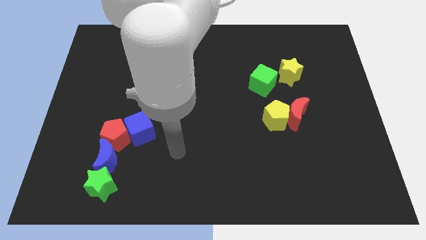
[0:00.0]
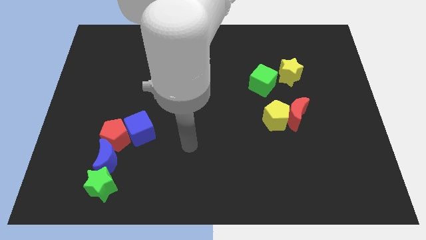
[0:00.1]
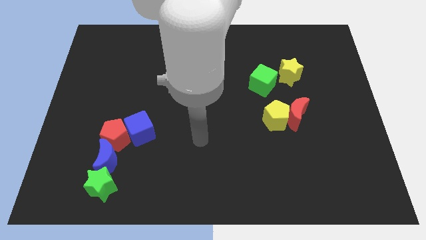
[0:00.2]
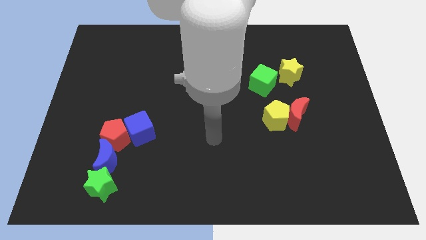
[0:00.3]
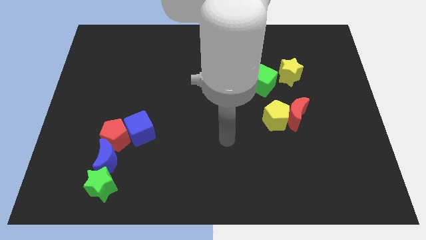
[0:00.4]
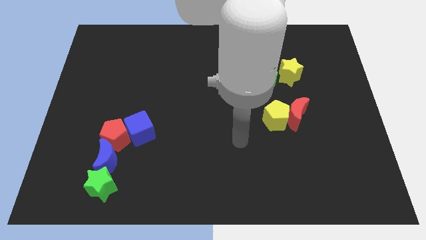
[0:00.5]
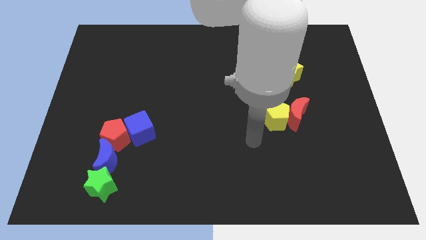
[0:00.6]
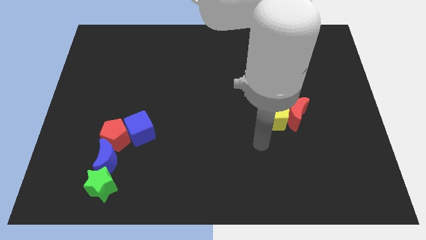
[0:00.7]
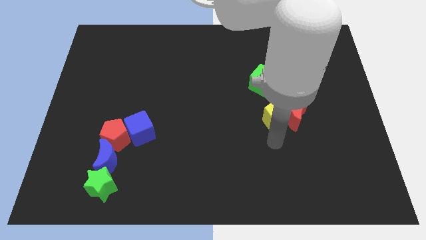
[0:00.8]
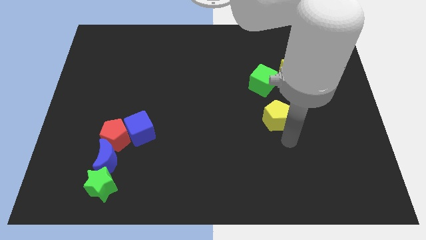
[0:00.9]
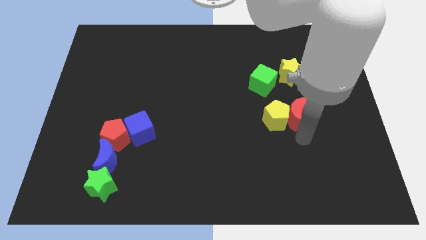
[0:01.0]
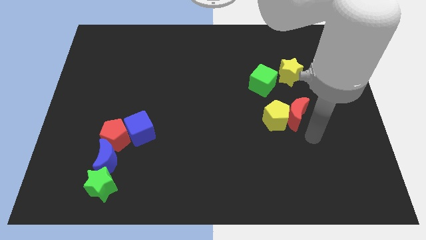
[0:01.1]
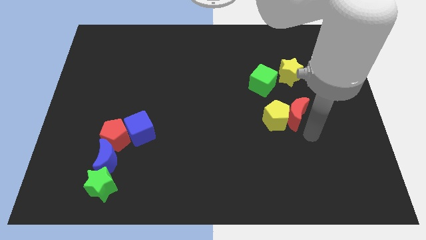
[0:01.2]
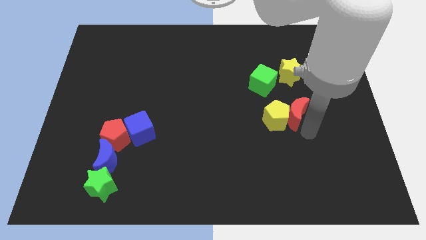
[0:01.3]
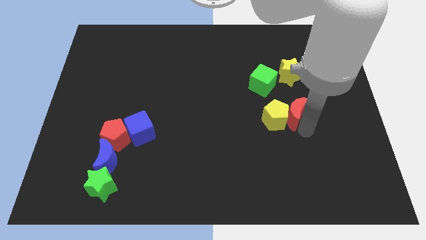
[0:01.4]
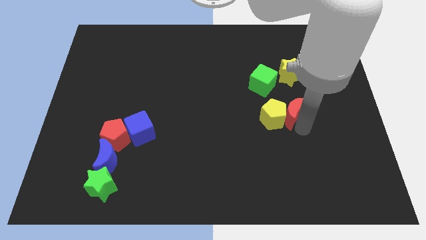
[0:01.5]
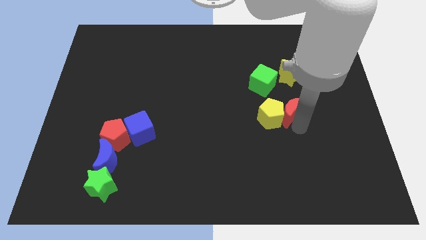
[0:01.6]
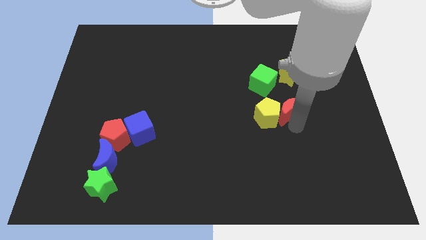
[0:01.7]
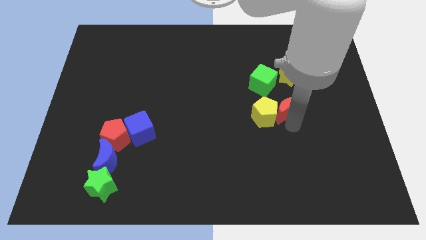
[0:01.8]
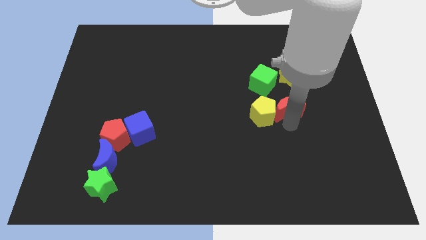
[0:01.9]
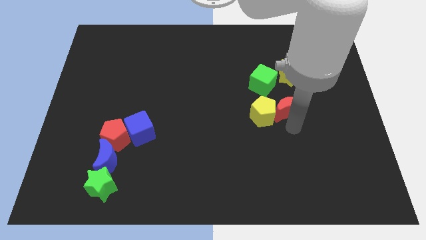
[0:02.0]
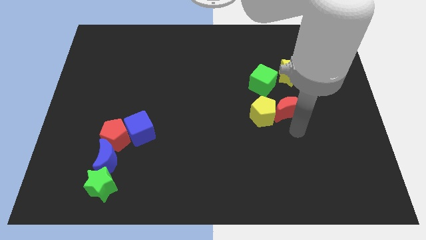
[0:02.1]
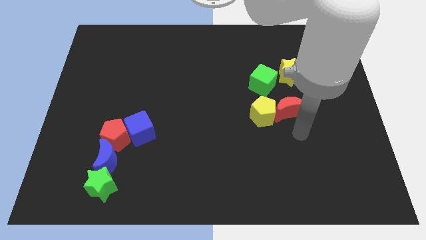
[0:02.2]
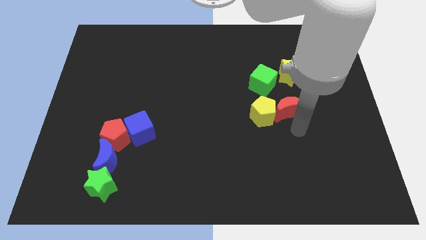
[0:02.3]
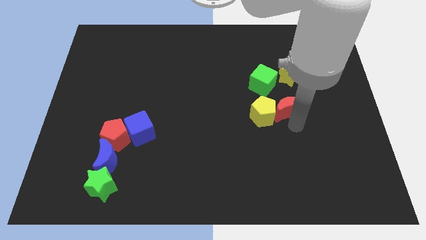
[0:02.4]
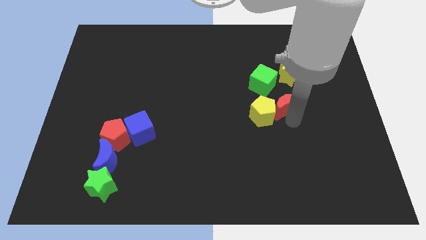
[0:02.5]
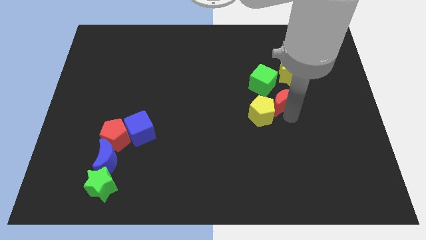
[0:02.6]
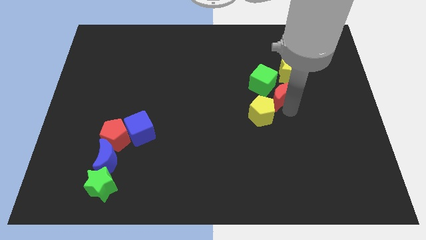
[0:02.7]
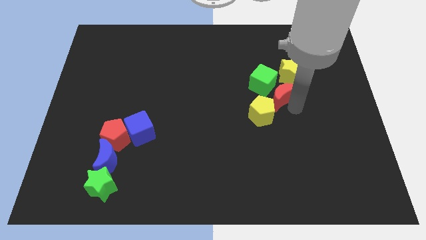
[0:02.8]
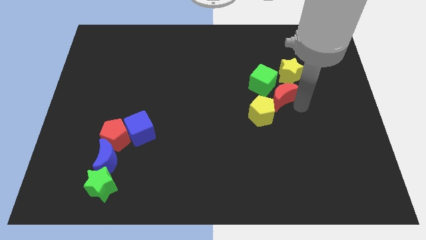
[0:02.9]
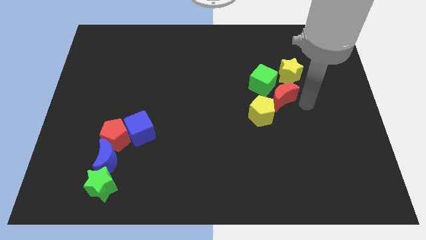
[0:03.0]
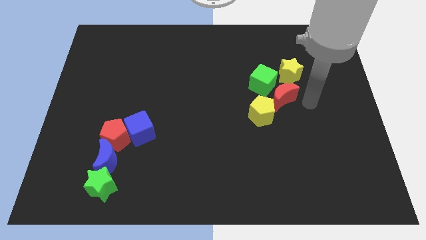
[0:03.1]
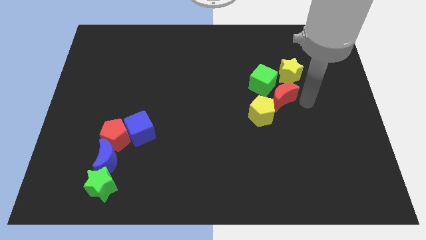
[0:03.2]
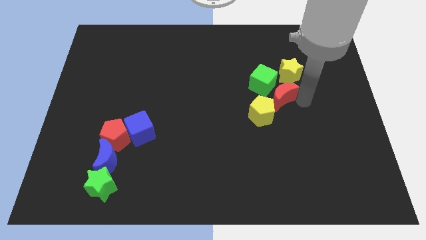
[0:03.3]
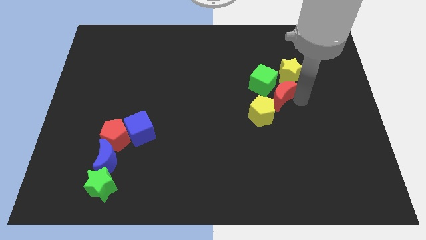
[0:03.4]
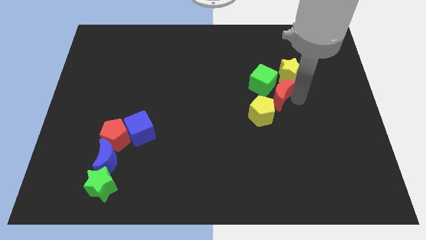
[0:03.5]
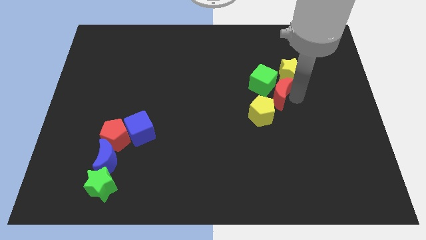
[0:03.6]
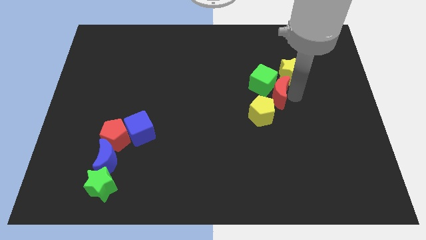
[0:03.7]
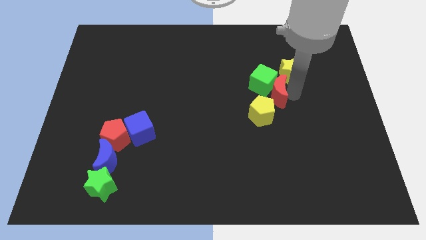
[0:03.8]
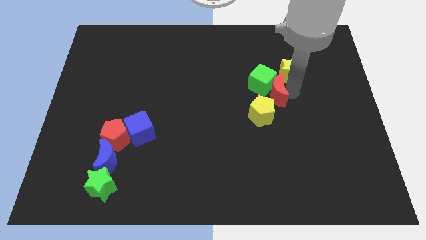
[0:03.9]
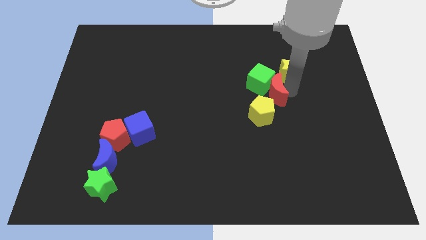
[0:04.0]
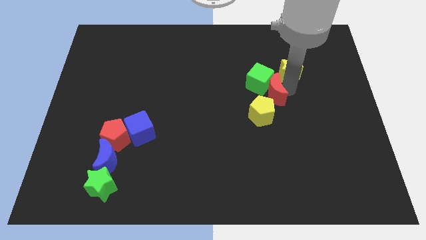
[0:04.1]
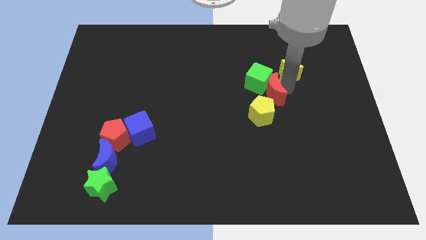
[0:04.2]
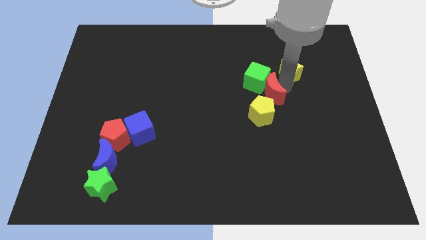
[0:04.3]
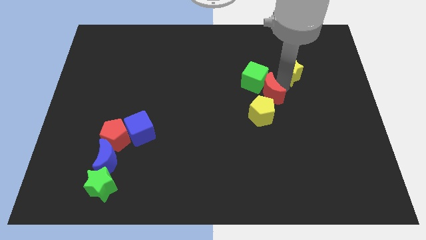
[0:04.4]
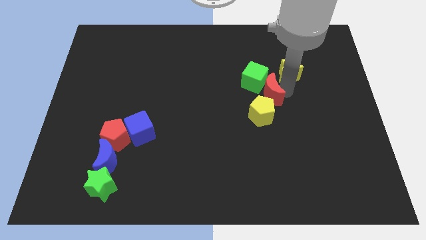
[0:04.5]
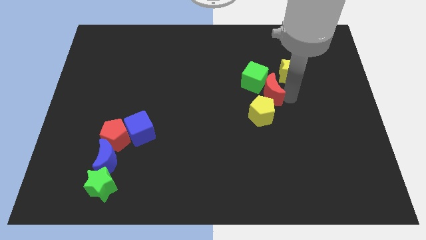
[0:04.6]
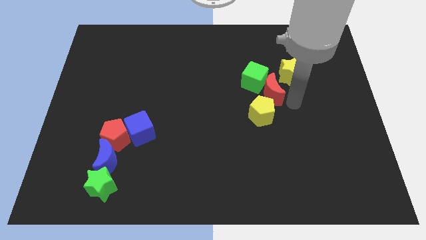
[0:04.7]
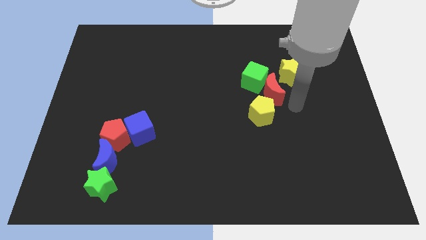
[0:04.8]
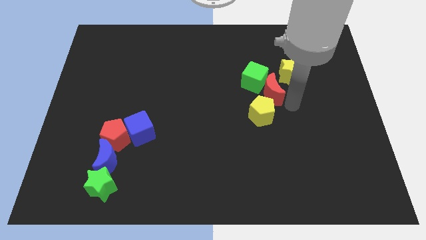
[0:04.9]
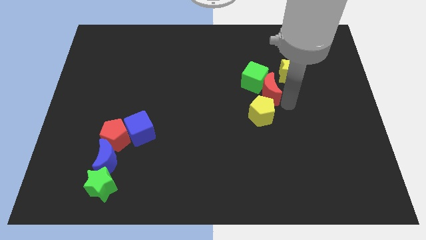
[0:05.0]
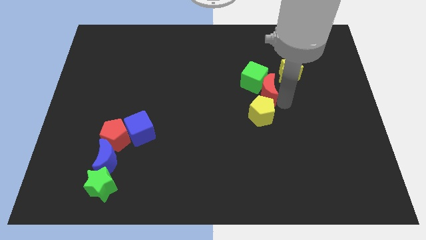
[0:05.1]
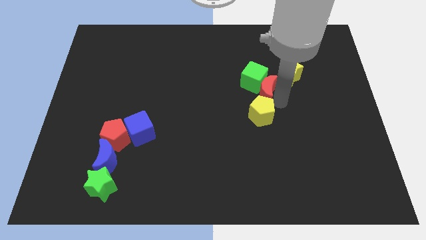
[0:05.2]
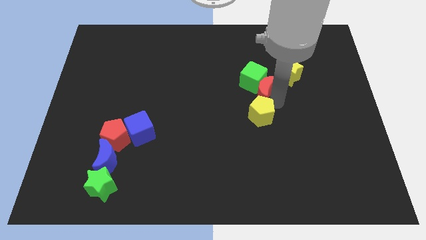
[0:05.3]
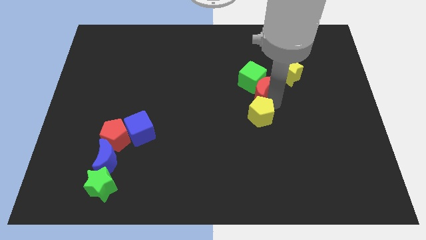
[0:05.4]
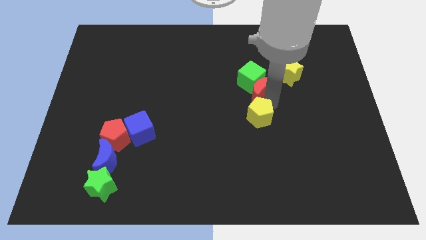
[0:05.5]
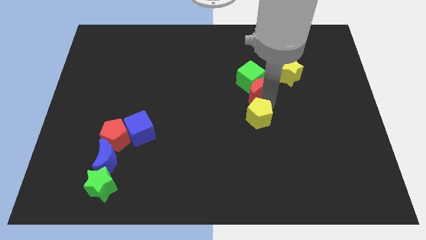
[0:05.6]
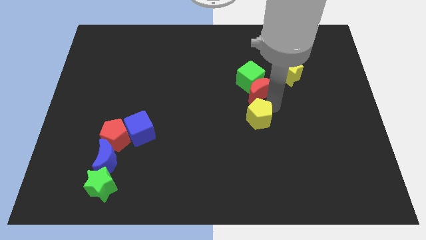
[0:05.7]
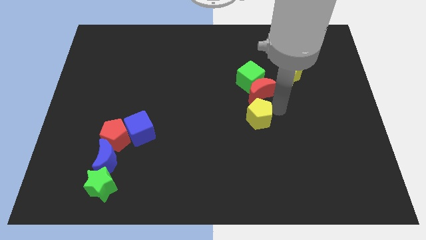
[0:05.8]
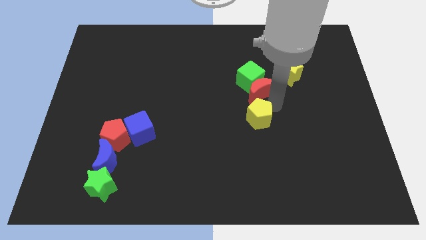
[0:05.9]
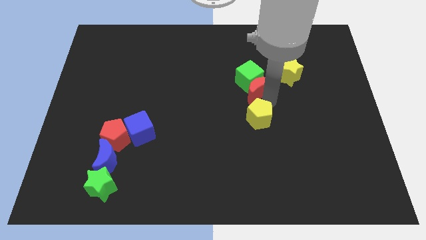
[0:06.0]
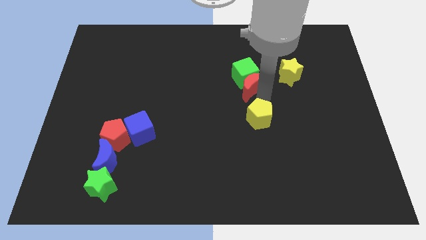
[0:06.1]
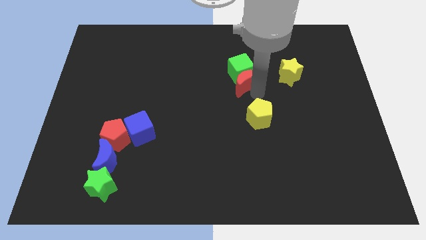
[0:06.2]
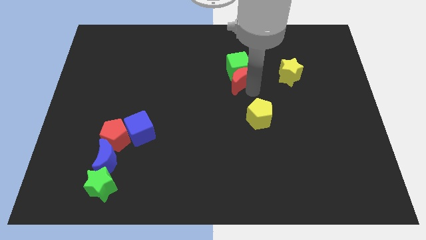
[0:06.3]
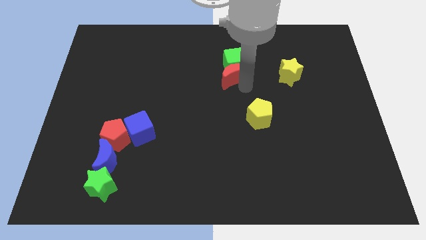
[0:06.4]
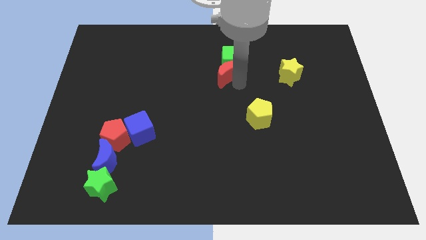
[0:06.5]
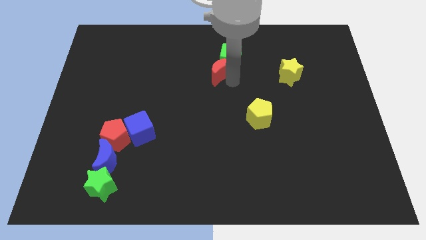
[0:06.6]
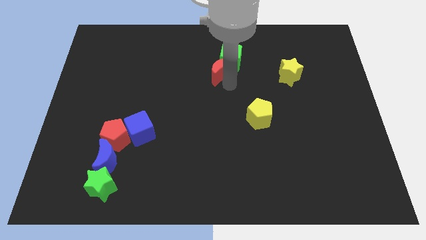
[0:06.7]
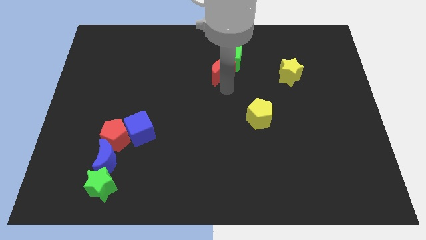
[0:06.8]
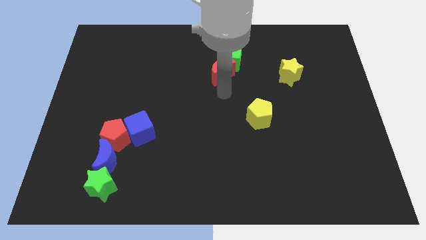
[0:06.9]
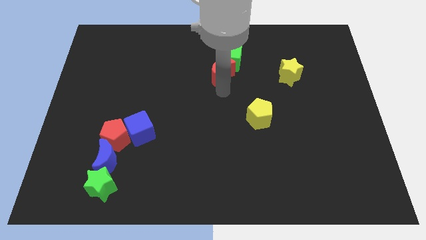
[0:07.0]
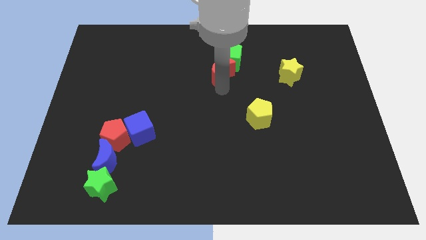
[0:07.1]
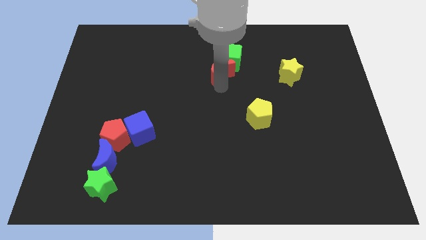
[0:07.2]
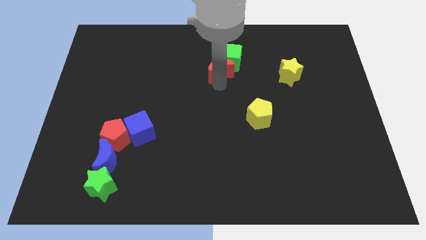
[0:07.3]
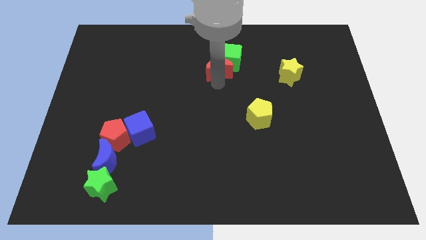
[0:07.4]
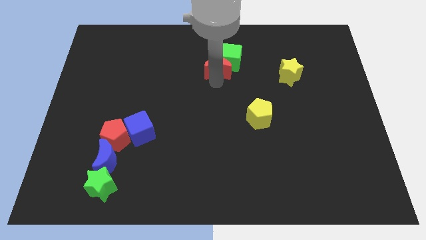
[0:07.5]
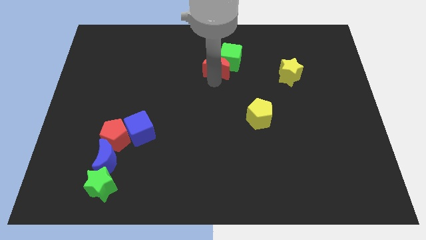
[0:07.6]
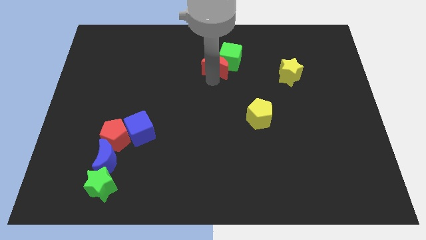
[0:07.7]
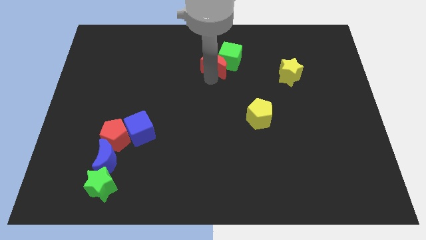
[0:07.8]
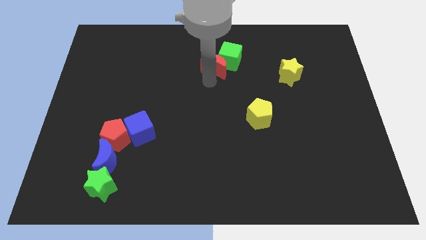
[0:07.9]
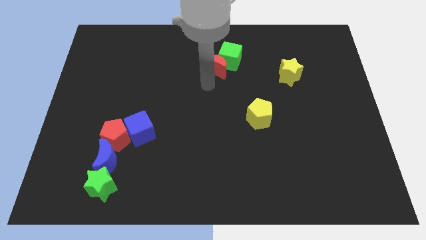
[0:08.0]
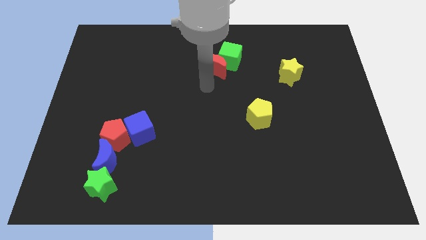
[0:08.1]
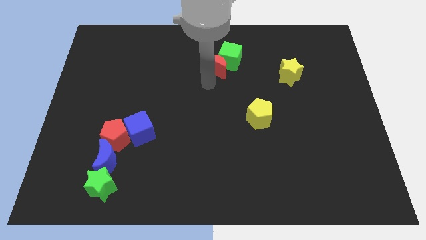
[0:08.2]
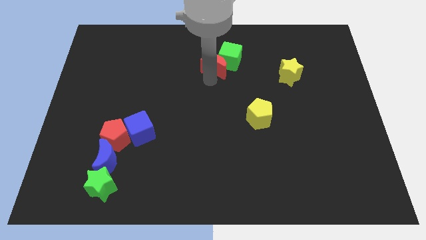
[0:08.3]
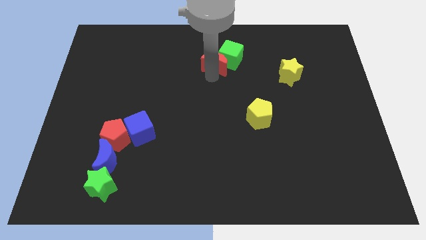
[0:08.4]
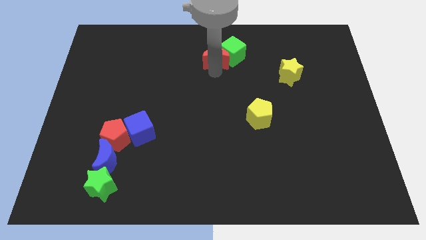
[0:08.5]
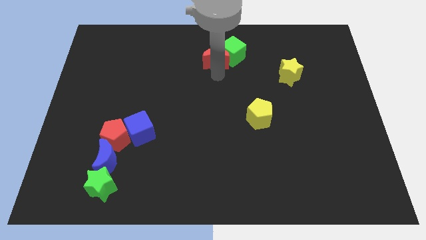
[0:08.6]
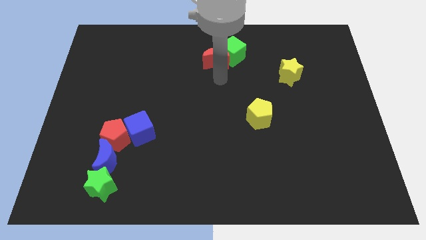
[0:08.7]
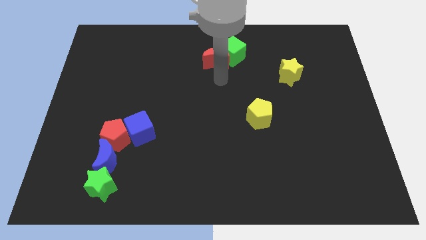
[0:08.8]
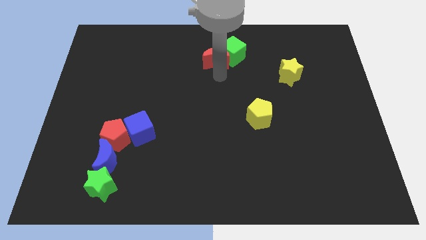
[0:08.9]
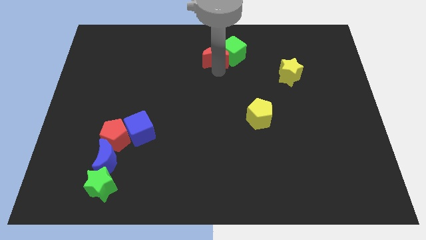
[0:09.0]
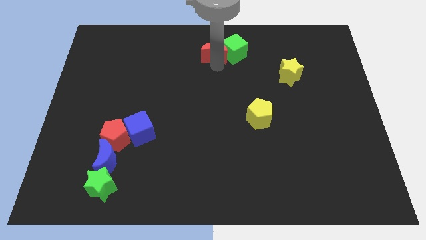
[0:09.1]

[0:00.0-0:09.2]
put the red moon to the top
